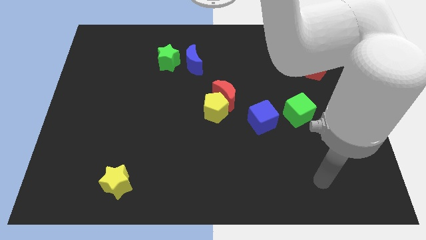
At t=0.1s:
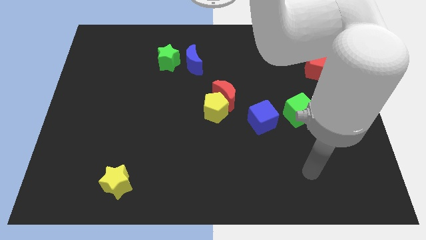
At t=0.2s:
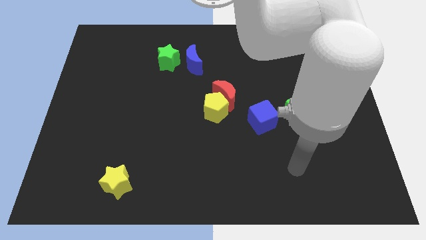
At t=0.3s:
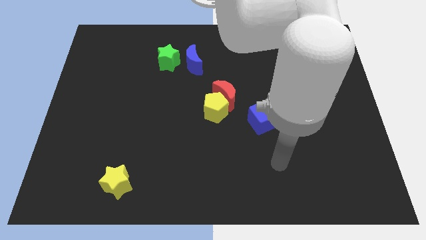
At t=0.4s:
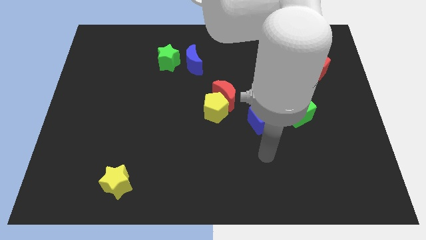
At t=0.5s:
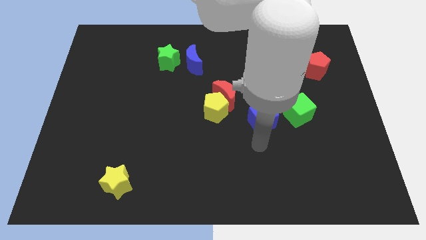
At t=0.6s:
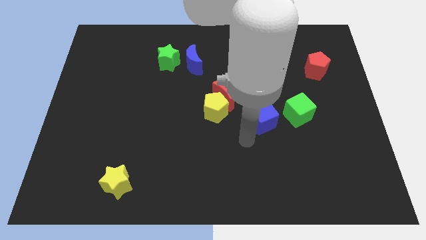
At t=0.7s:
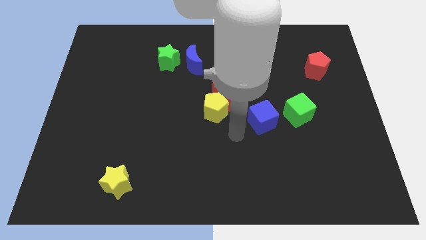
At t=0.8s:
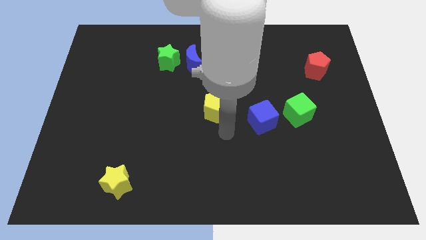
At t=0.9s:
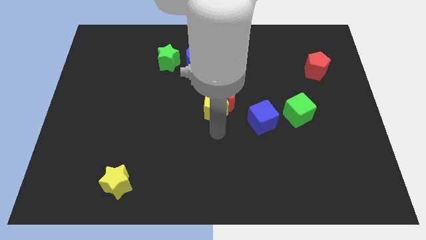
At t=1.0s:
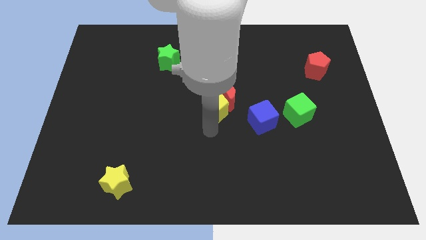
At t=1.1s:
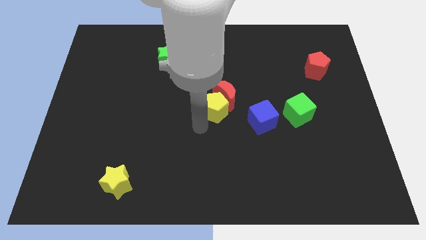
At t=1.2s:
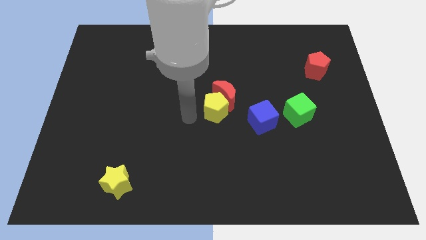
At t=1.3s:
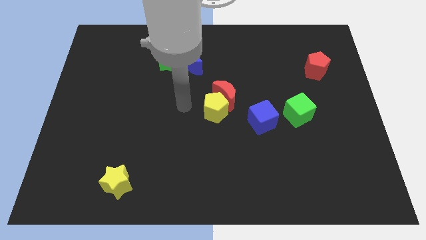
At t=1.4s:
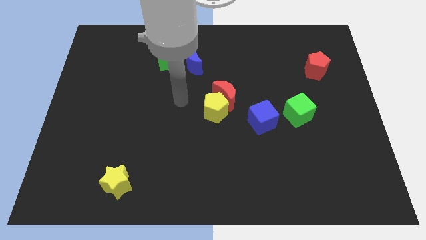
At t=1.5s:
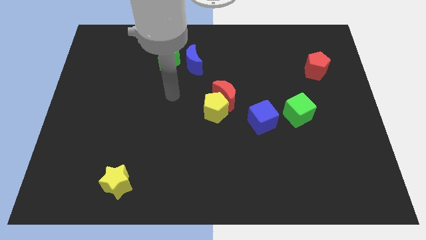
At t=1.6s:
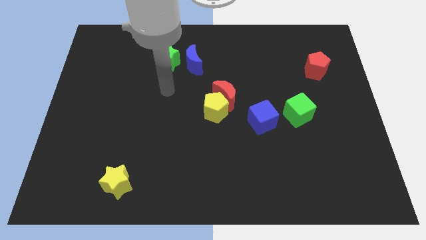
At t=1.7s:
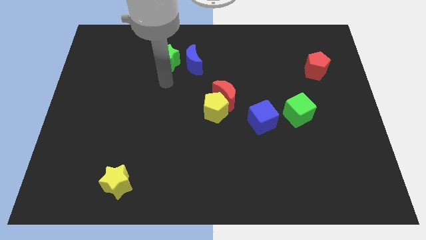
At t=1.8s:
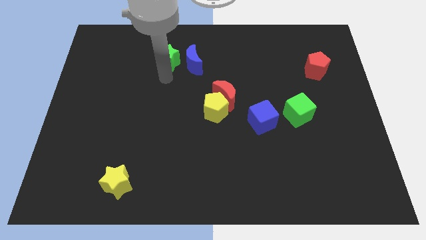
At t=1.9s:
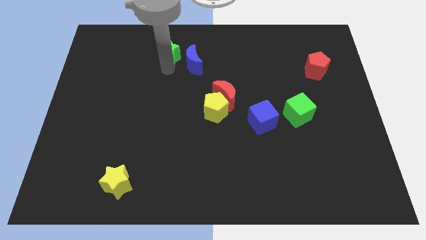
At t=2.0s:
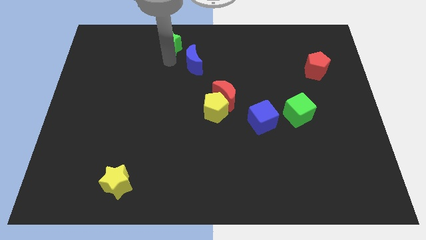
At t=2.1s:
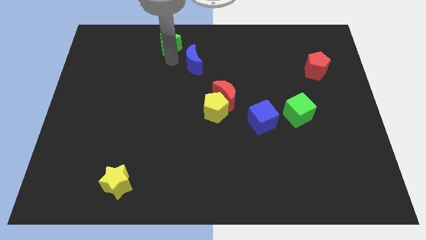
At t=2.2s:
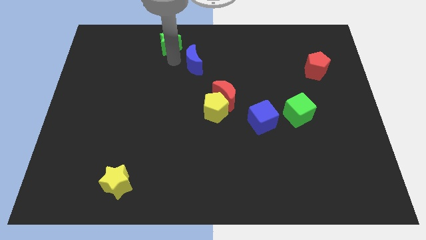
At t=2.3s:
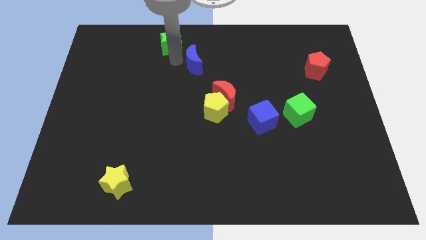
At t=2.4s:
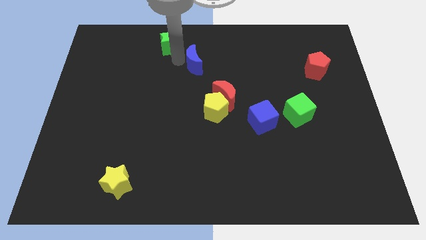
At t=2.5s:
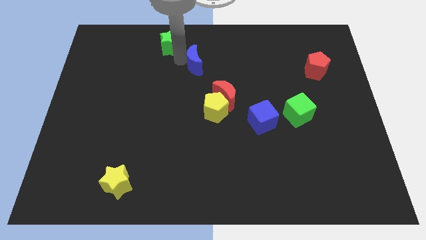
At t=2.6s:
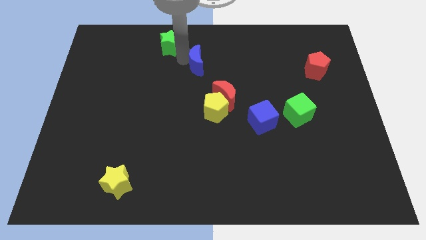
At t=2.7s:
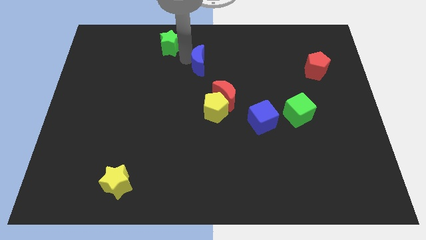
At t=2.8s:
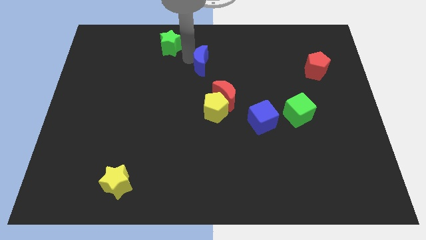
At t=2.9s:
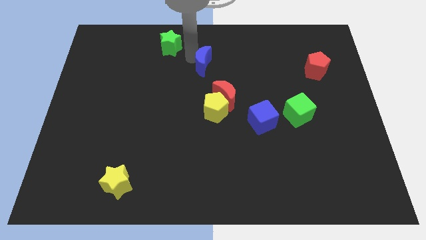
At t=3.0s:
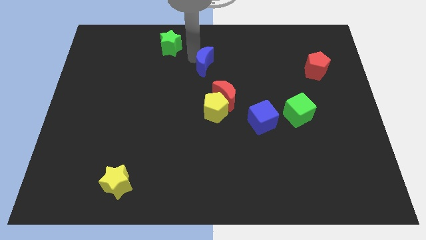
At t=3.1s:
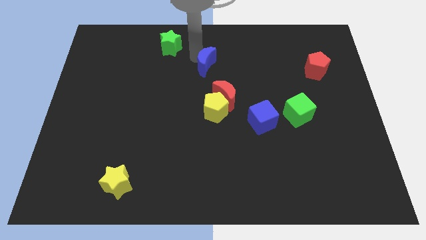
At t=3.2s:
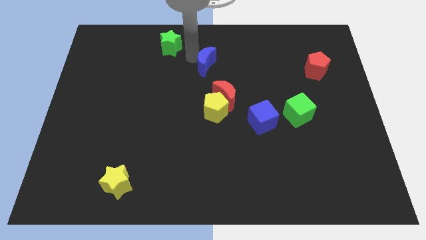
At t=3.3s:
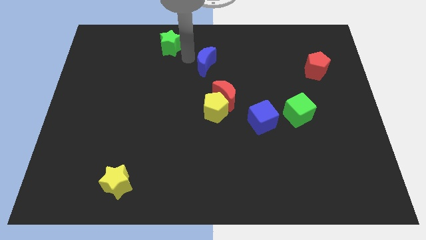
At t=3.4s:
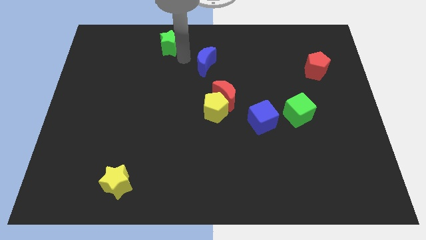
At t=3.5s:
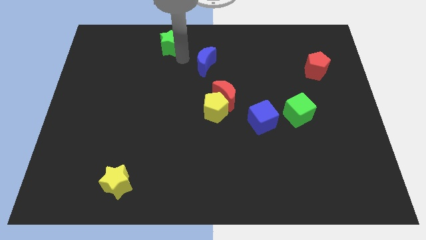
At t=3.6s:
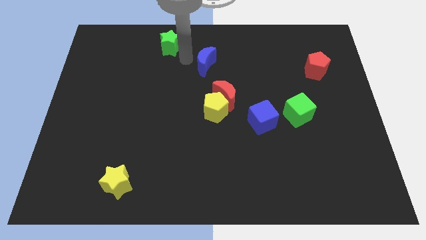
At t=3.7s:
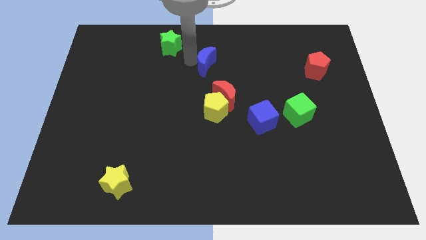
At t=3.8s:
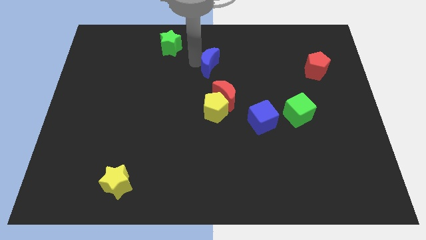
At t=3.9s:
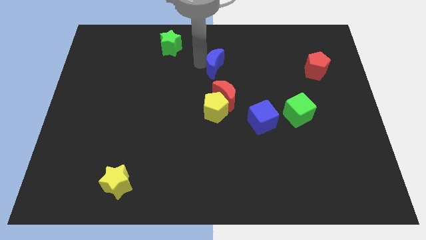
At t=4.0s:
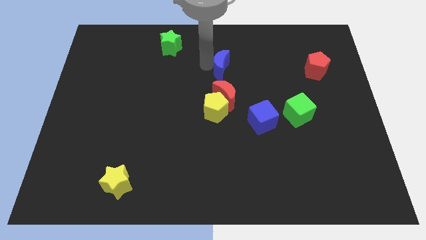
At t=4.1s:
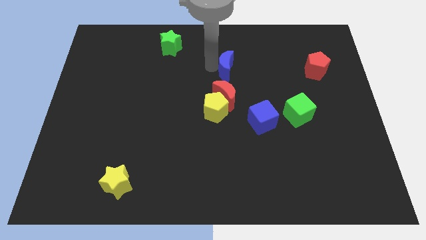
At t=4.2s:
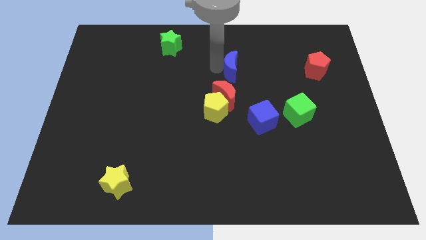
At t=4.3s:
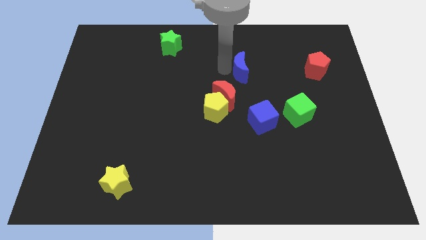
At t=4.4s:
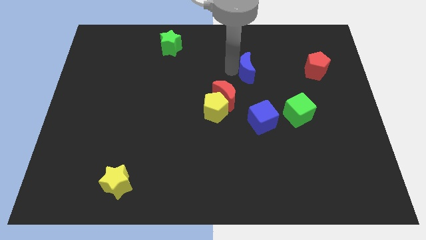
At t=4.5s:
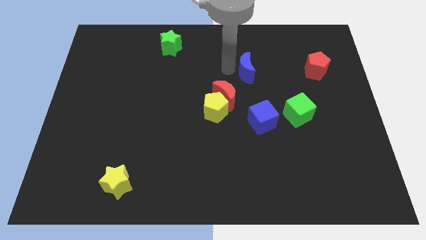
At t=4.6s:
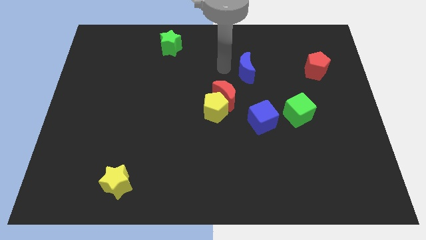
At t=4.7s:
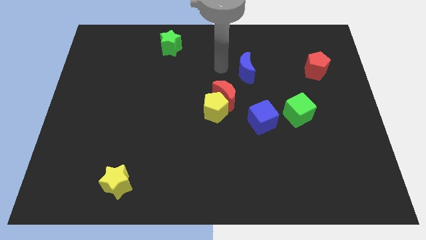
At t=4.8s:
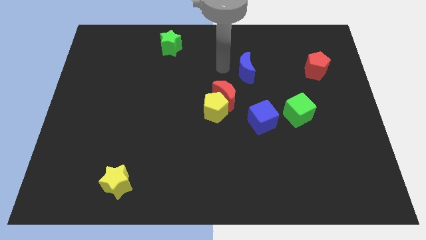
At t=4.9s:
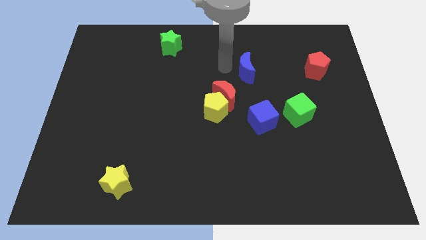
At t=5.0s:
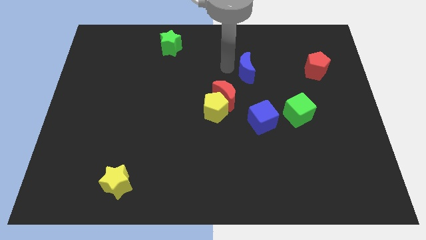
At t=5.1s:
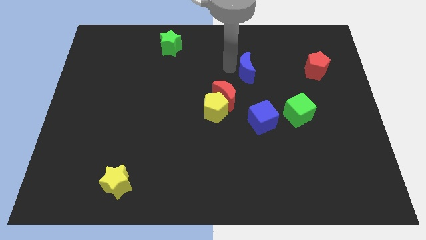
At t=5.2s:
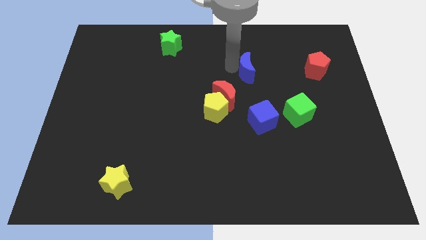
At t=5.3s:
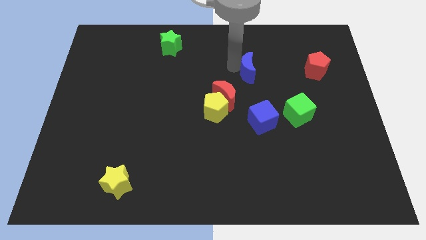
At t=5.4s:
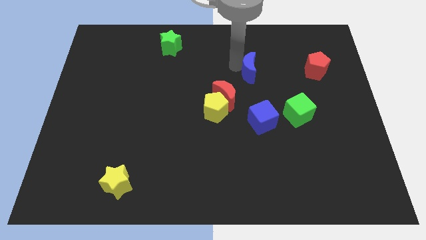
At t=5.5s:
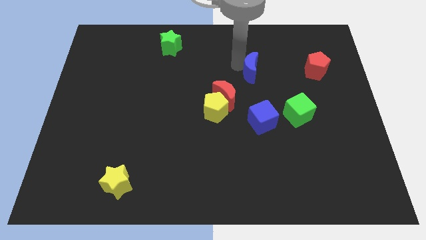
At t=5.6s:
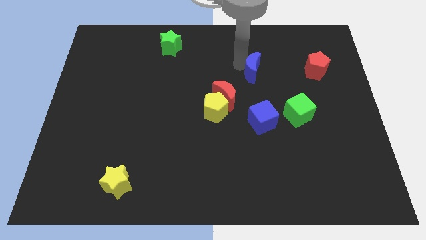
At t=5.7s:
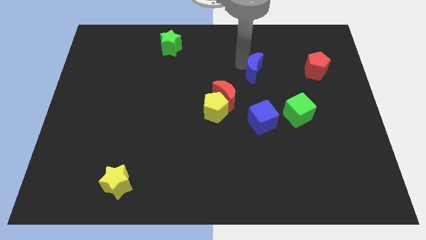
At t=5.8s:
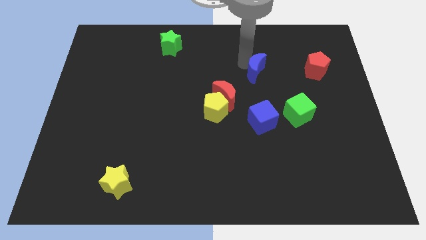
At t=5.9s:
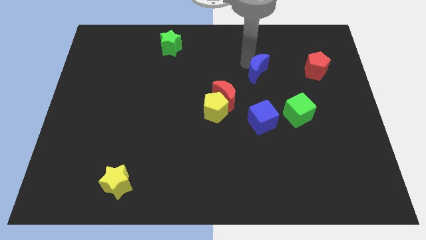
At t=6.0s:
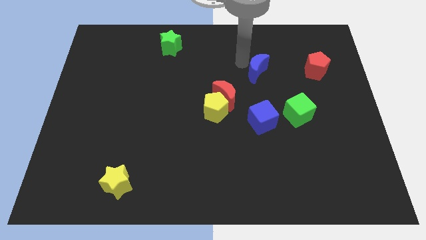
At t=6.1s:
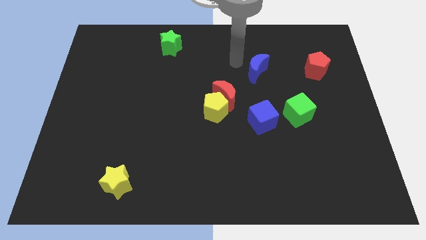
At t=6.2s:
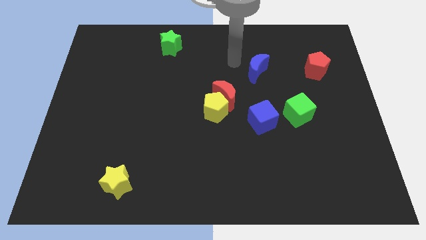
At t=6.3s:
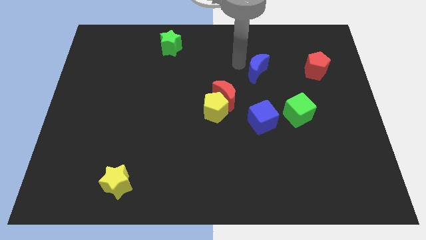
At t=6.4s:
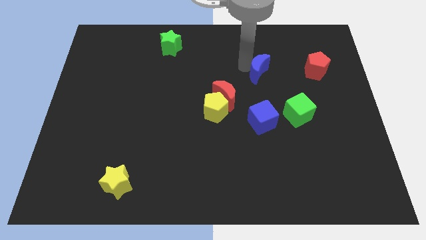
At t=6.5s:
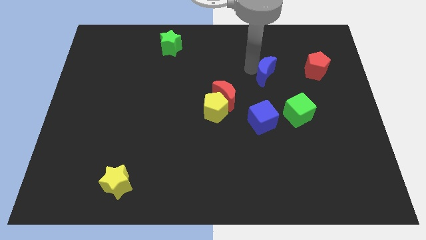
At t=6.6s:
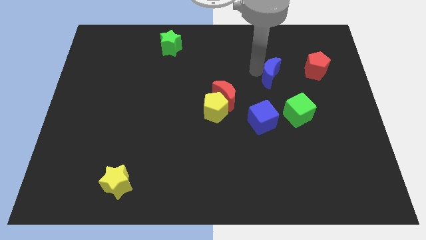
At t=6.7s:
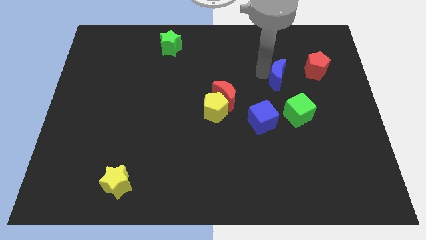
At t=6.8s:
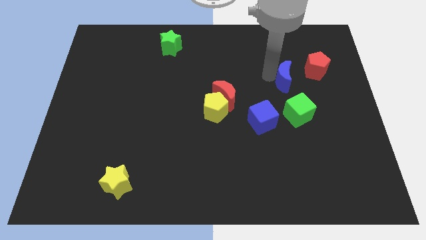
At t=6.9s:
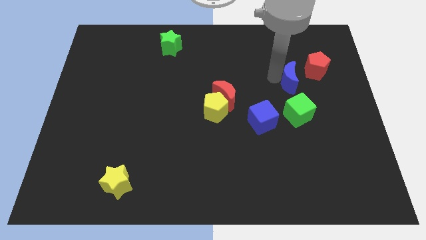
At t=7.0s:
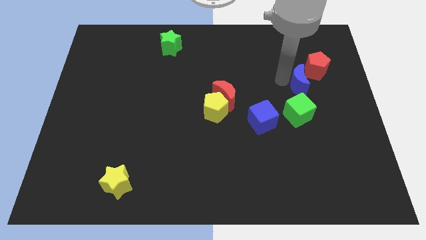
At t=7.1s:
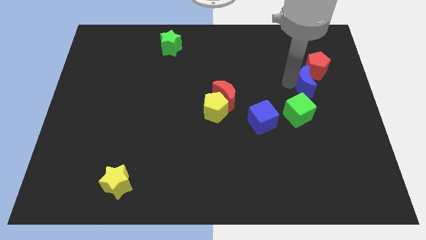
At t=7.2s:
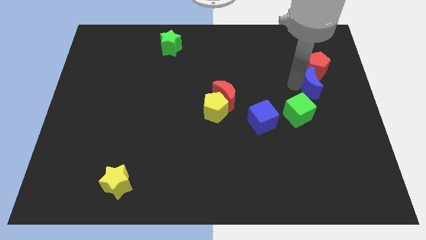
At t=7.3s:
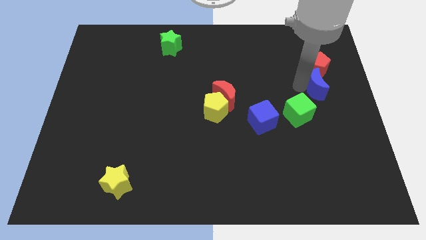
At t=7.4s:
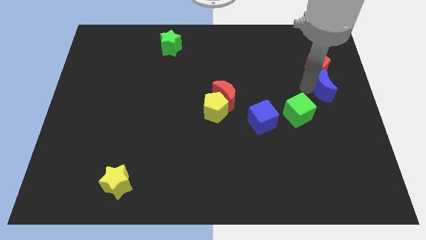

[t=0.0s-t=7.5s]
slide the blue moon to the right side of the board

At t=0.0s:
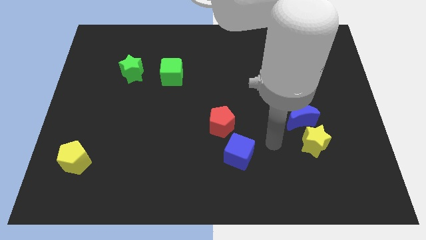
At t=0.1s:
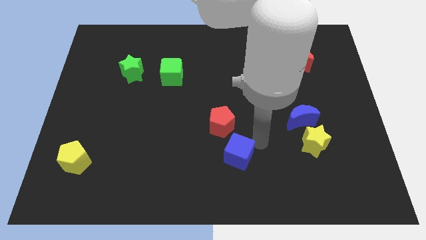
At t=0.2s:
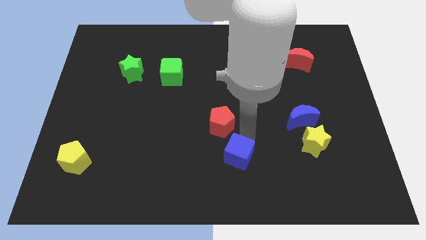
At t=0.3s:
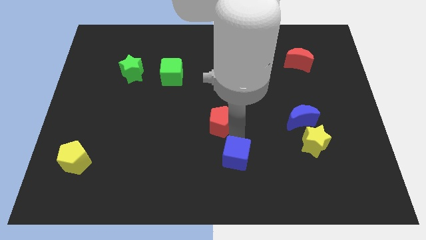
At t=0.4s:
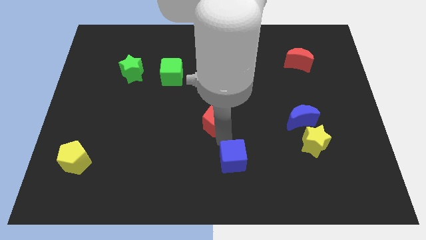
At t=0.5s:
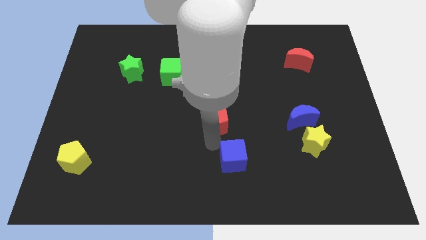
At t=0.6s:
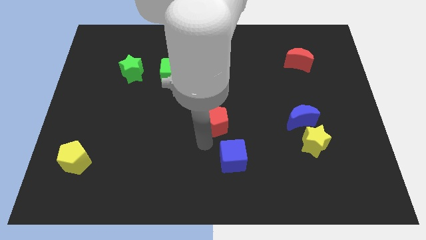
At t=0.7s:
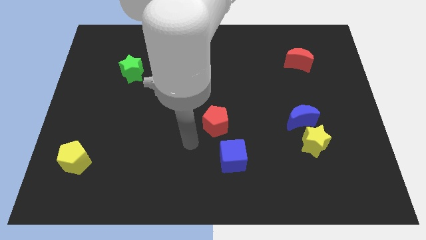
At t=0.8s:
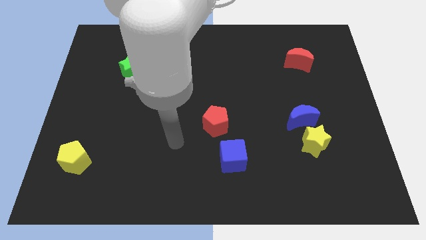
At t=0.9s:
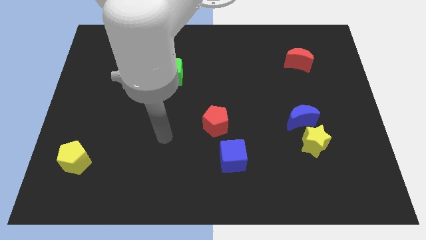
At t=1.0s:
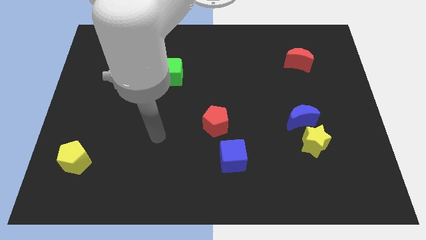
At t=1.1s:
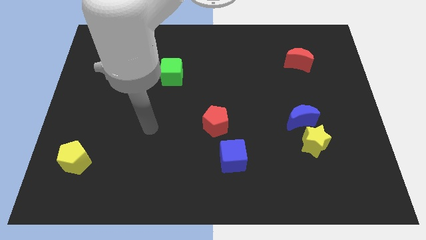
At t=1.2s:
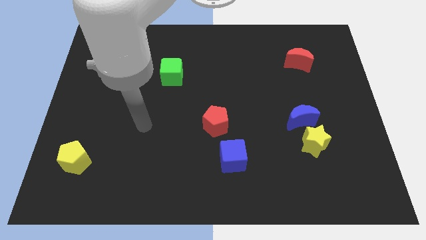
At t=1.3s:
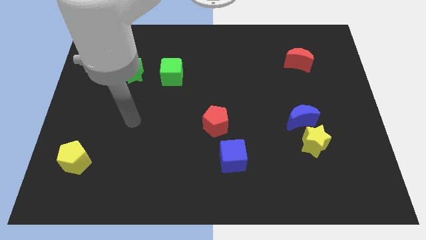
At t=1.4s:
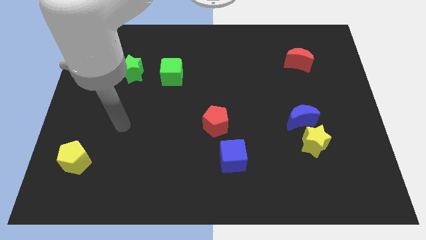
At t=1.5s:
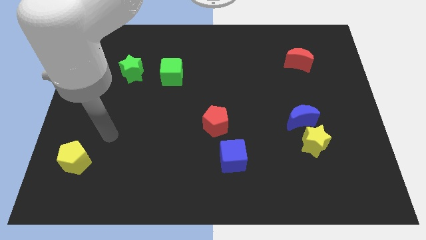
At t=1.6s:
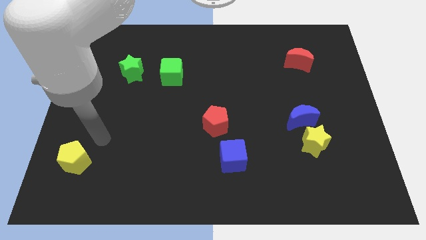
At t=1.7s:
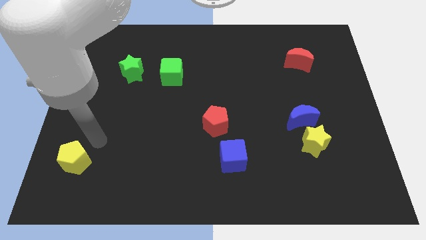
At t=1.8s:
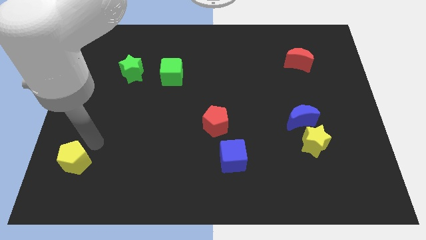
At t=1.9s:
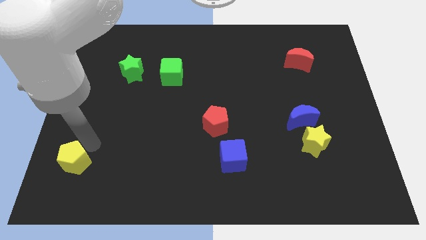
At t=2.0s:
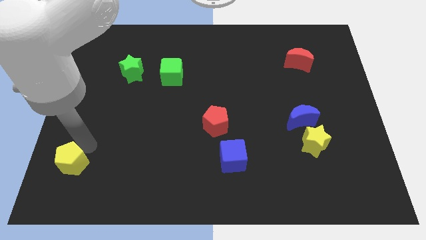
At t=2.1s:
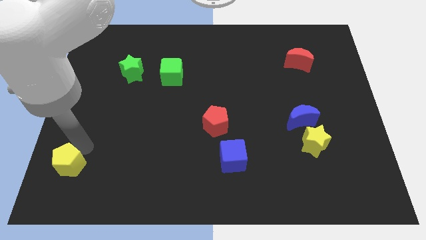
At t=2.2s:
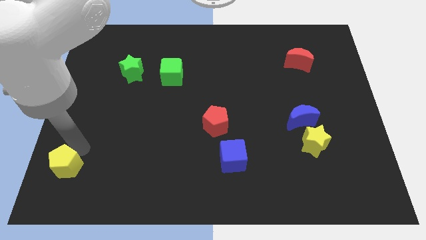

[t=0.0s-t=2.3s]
push the yellow pentagon to the bottom left of the board
